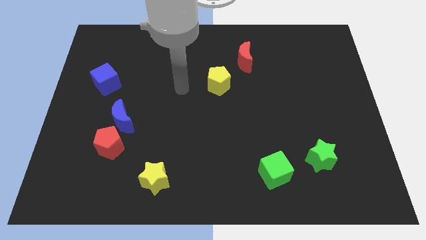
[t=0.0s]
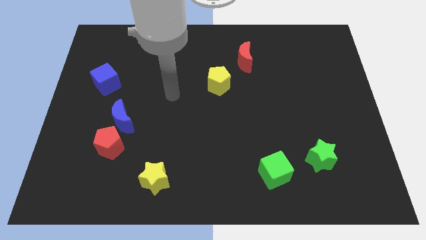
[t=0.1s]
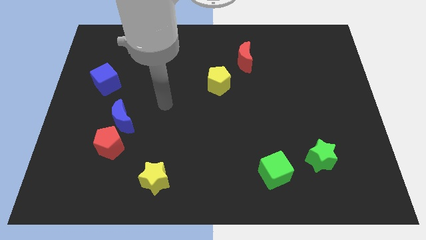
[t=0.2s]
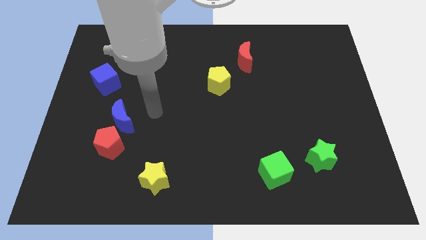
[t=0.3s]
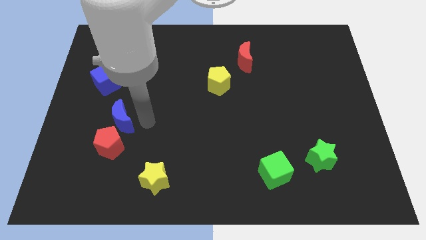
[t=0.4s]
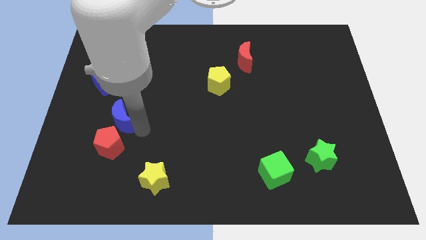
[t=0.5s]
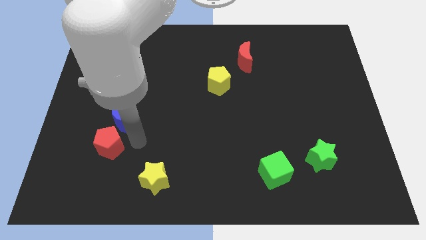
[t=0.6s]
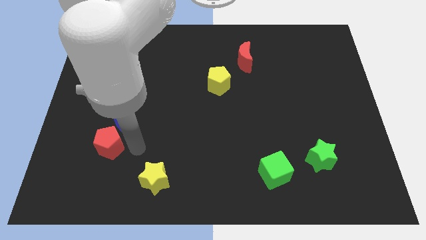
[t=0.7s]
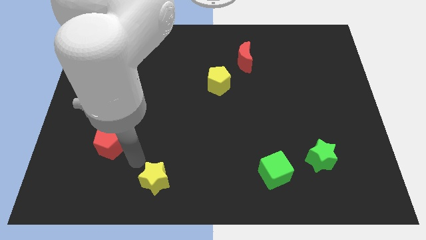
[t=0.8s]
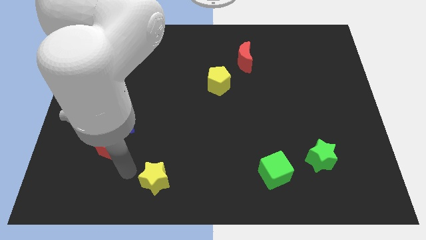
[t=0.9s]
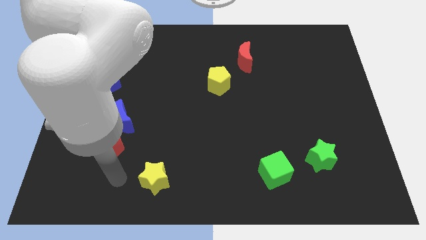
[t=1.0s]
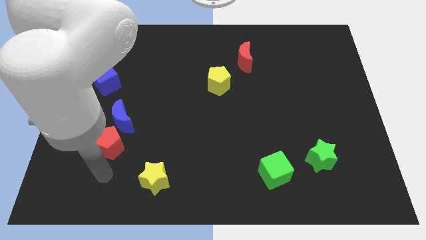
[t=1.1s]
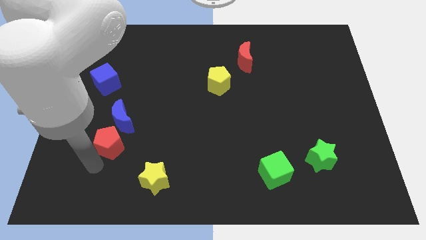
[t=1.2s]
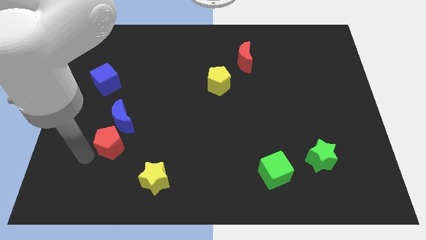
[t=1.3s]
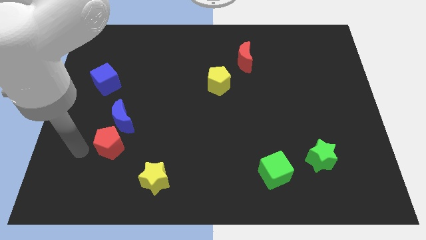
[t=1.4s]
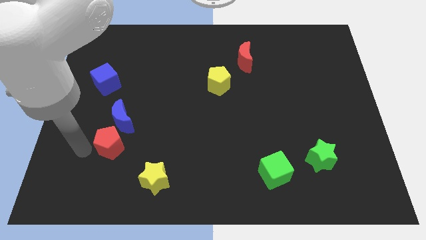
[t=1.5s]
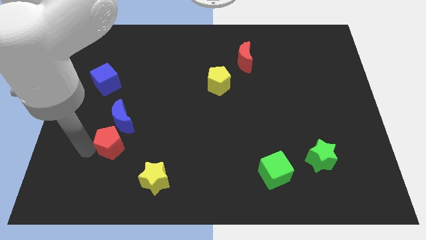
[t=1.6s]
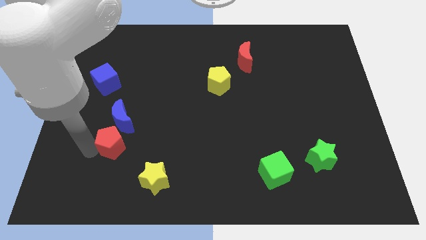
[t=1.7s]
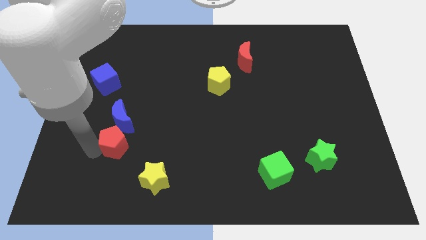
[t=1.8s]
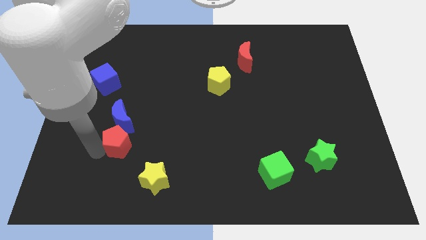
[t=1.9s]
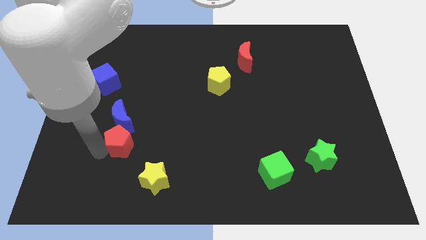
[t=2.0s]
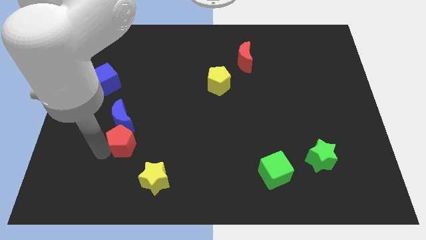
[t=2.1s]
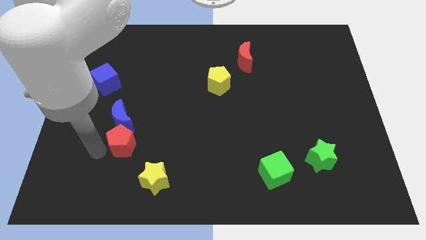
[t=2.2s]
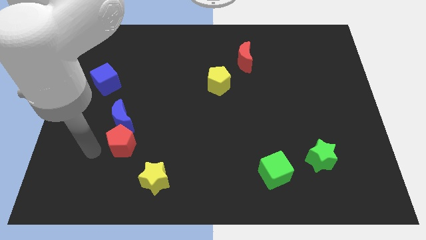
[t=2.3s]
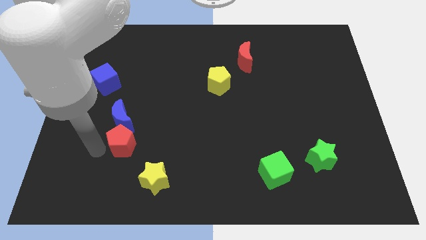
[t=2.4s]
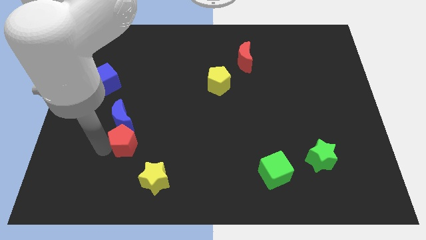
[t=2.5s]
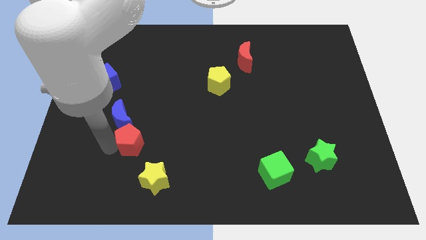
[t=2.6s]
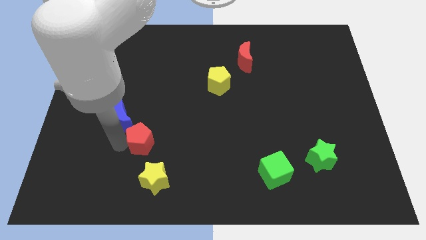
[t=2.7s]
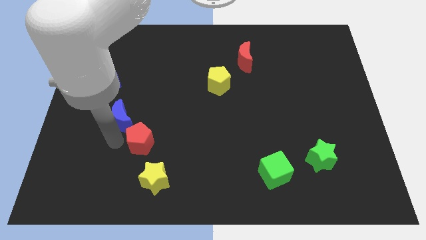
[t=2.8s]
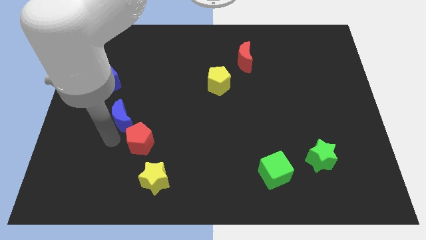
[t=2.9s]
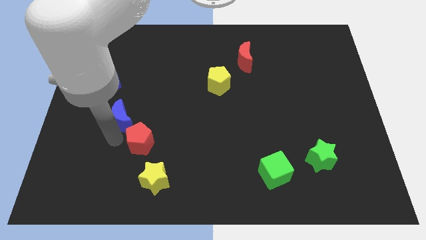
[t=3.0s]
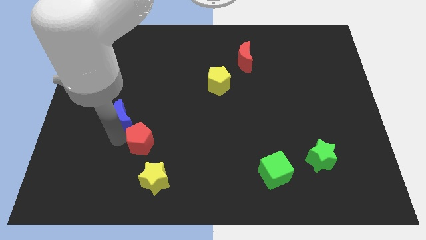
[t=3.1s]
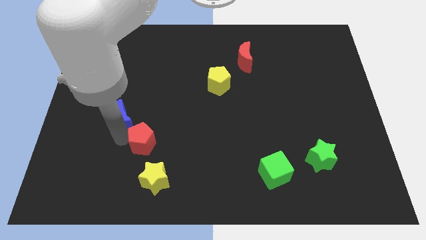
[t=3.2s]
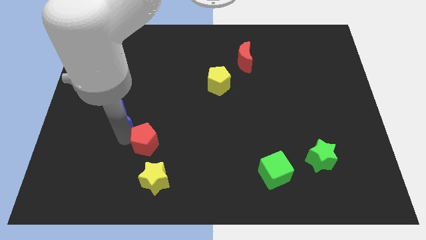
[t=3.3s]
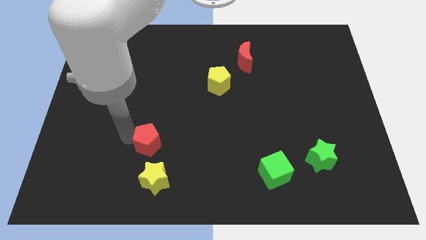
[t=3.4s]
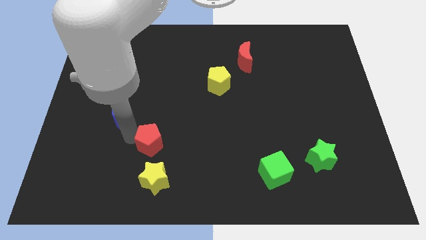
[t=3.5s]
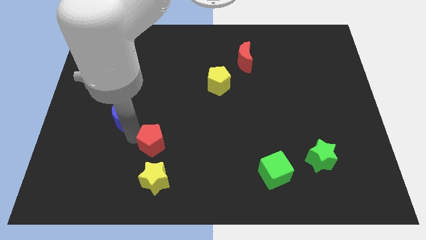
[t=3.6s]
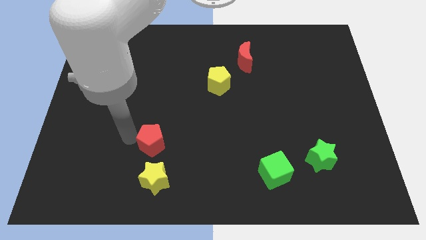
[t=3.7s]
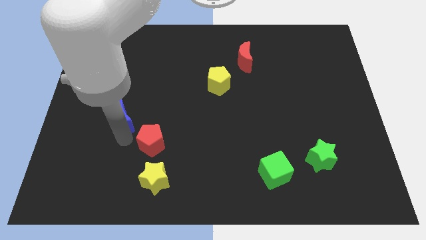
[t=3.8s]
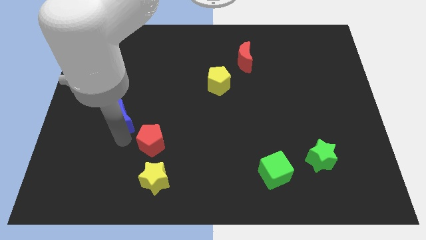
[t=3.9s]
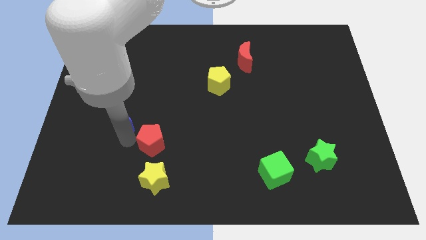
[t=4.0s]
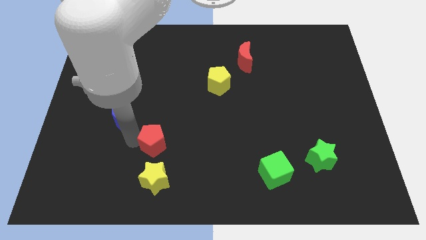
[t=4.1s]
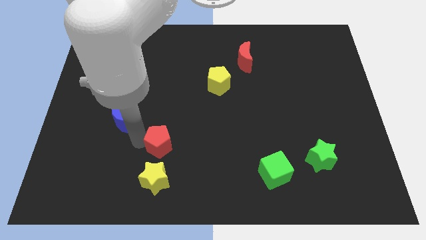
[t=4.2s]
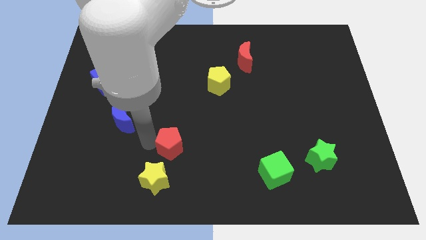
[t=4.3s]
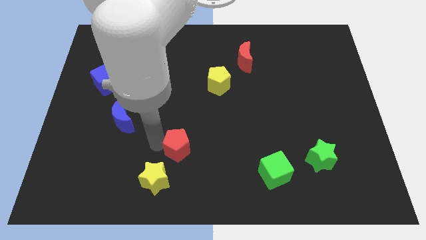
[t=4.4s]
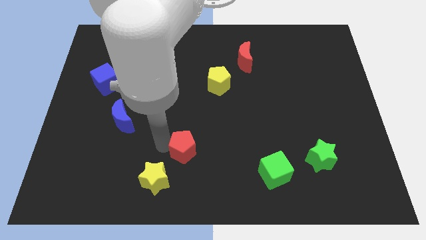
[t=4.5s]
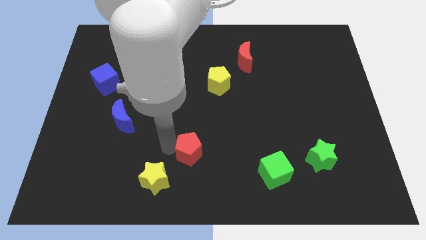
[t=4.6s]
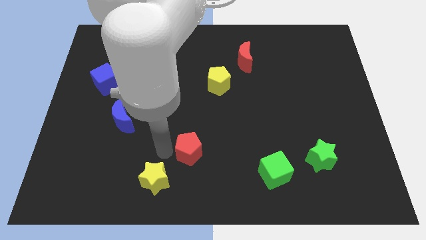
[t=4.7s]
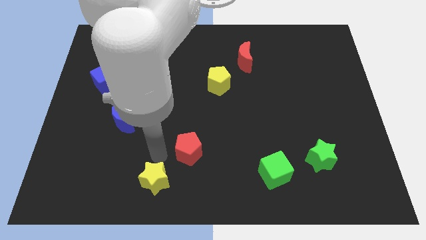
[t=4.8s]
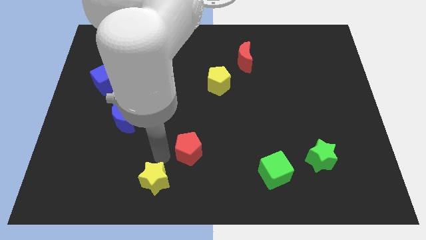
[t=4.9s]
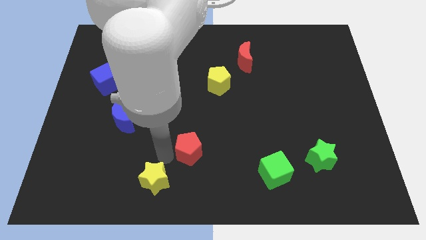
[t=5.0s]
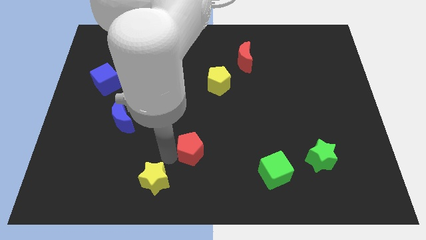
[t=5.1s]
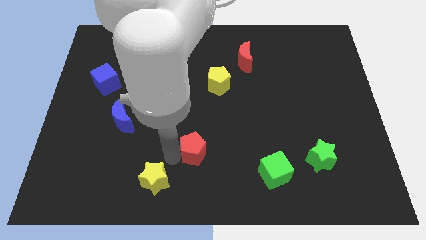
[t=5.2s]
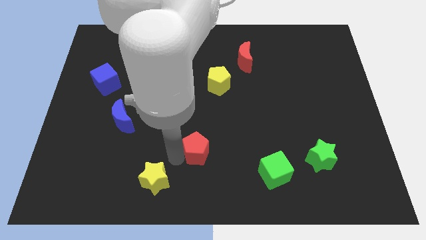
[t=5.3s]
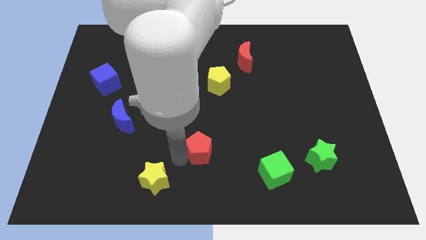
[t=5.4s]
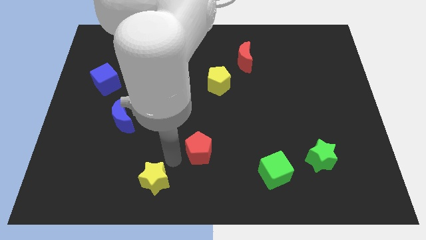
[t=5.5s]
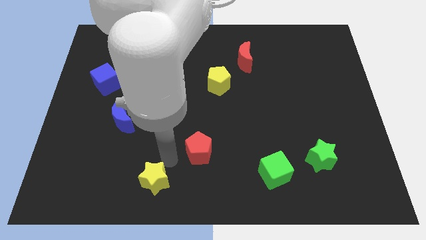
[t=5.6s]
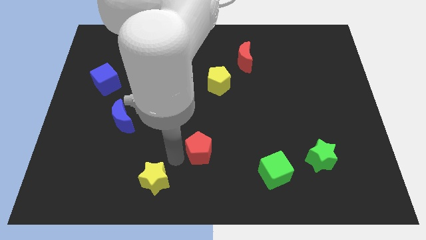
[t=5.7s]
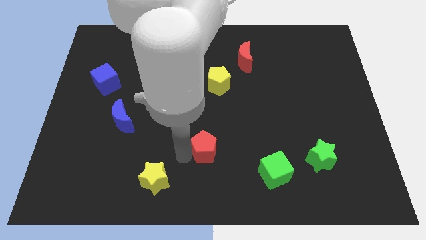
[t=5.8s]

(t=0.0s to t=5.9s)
slide the red pentagon to the right

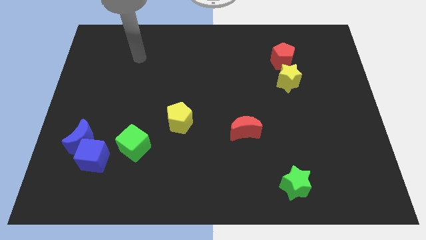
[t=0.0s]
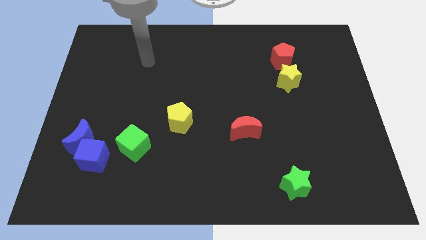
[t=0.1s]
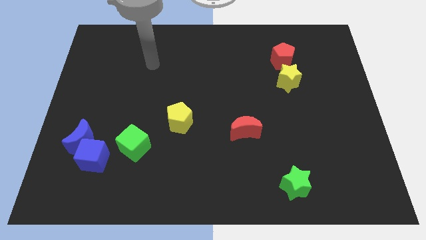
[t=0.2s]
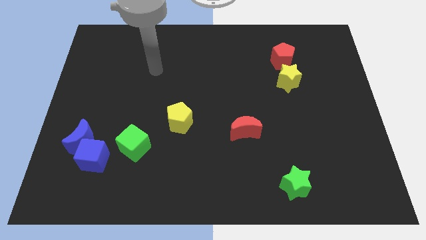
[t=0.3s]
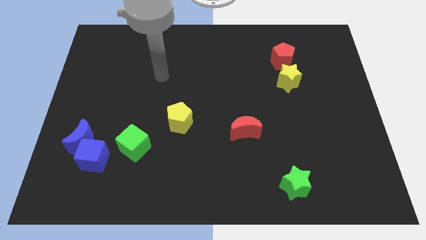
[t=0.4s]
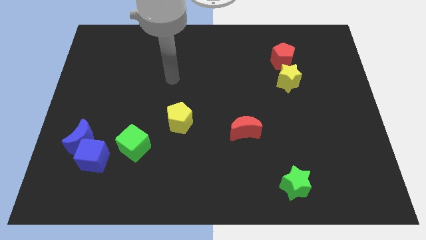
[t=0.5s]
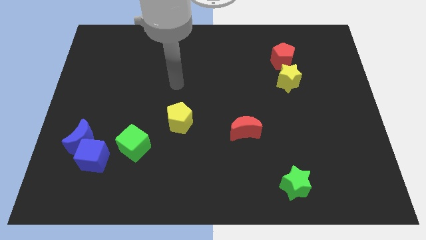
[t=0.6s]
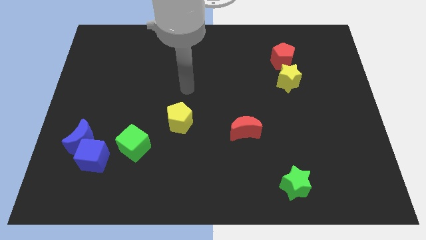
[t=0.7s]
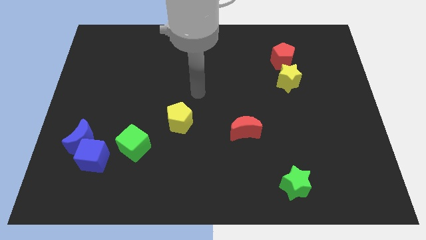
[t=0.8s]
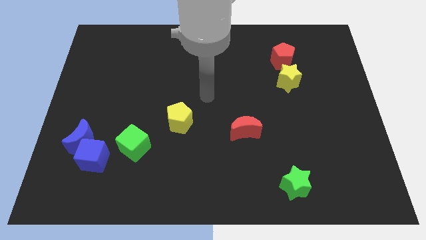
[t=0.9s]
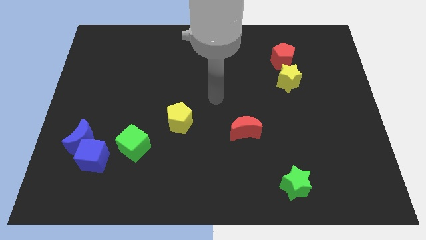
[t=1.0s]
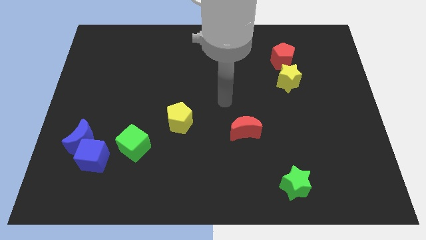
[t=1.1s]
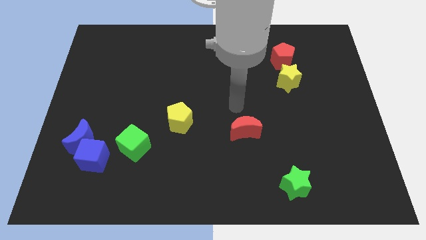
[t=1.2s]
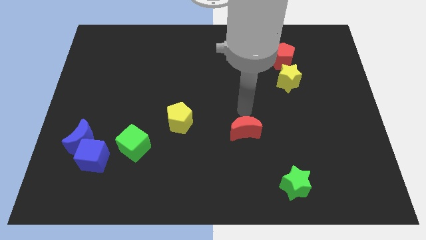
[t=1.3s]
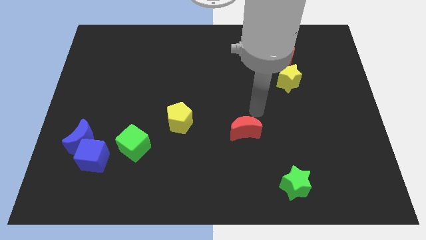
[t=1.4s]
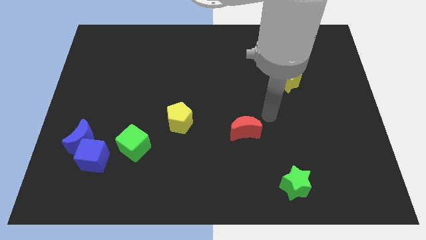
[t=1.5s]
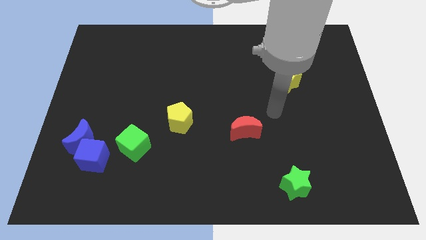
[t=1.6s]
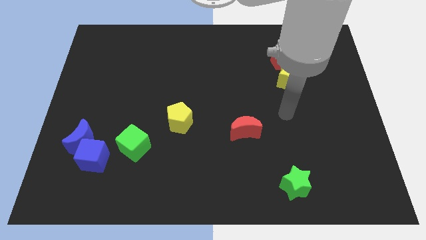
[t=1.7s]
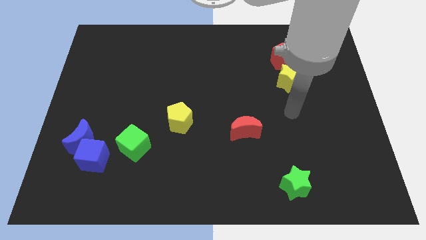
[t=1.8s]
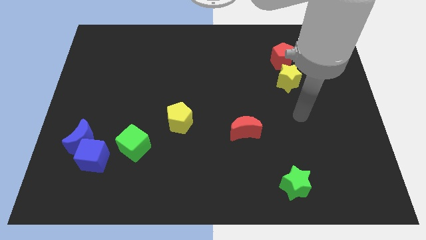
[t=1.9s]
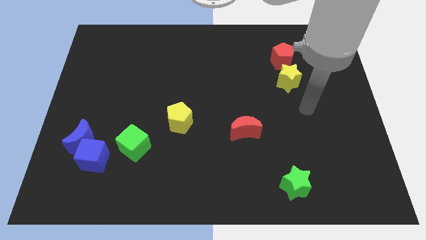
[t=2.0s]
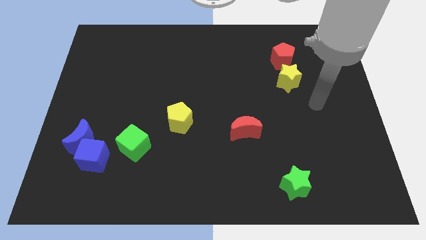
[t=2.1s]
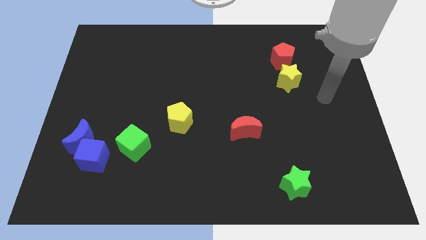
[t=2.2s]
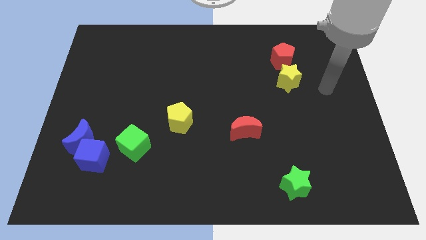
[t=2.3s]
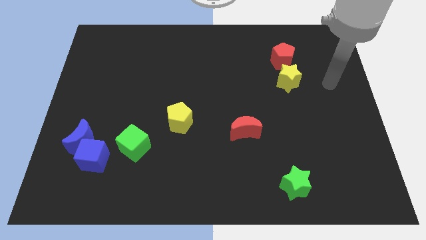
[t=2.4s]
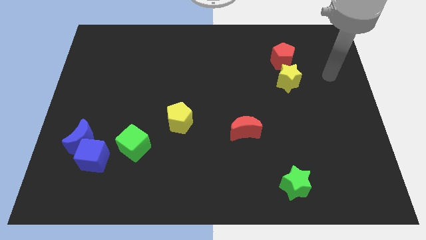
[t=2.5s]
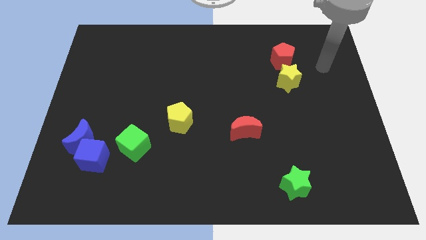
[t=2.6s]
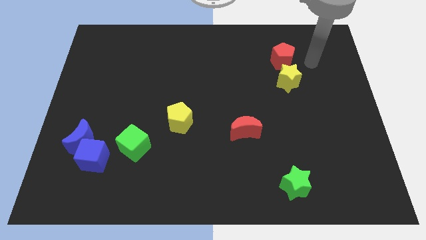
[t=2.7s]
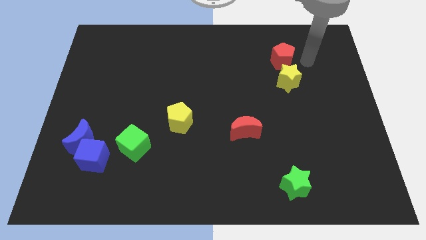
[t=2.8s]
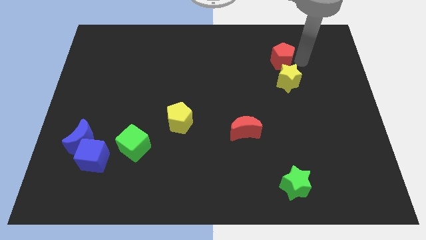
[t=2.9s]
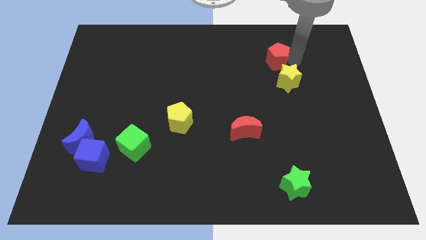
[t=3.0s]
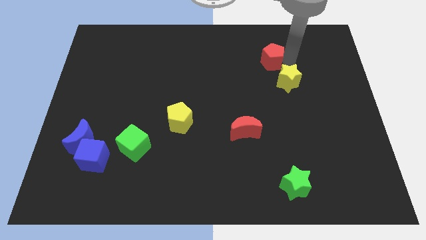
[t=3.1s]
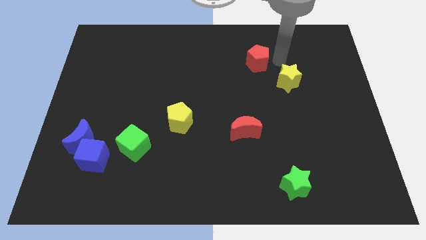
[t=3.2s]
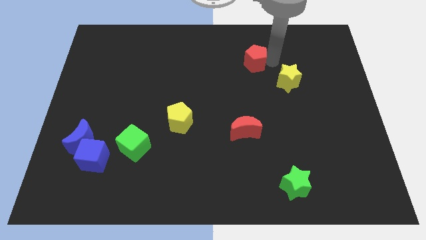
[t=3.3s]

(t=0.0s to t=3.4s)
move the red pentagon a little left
